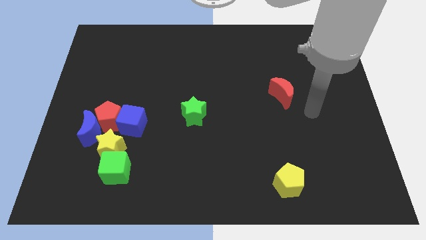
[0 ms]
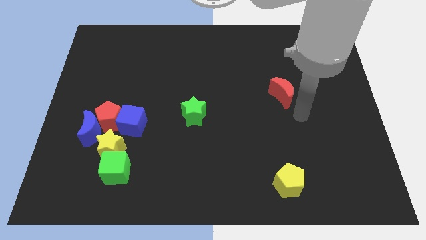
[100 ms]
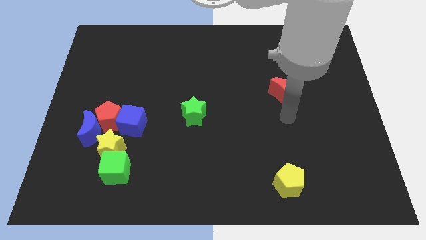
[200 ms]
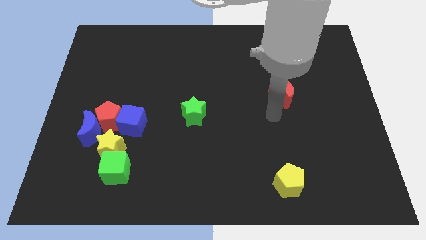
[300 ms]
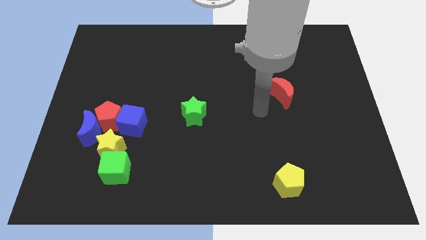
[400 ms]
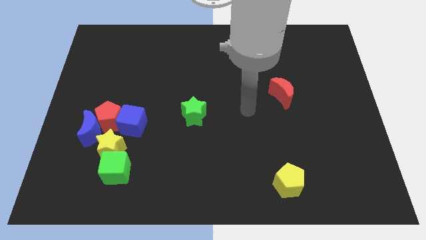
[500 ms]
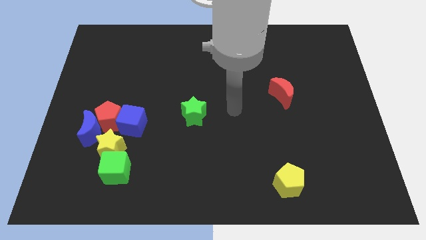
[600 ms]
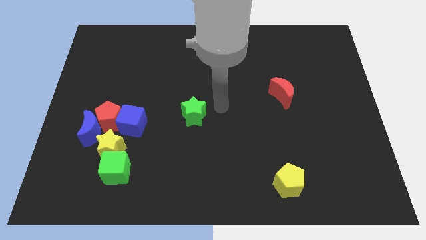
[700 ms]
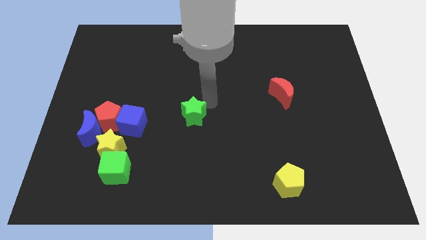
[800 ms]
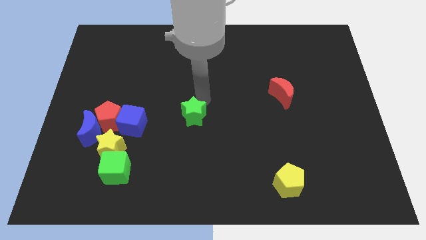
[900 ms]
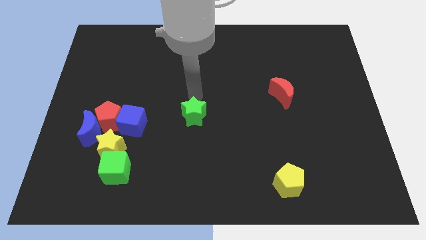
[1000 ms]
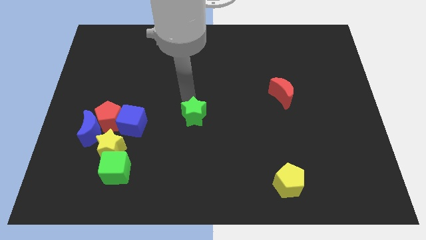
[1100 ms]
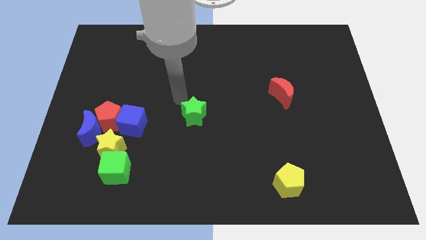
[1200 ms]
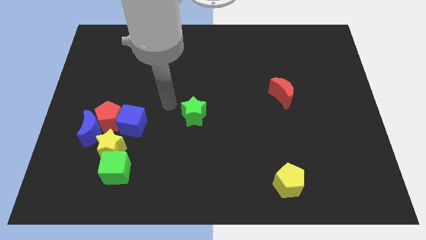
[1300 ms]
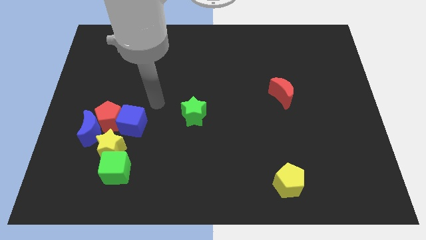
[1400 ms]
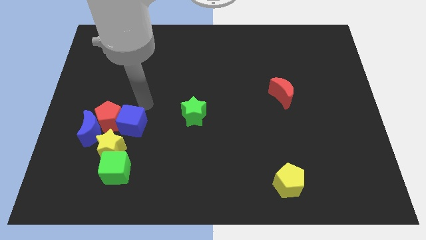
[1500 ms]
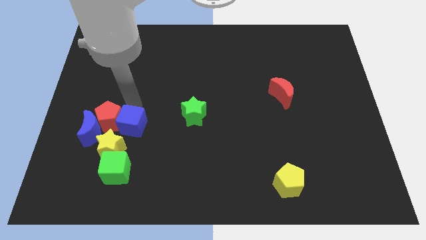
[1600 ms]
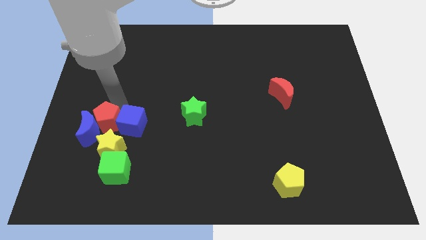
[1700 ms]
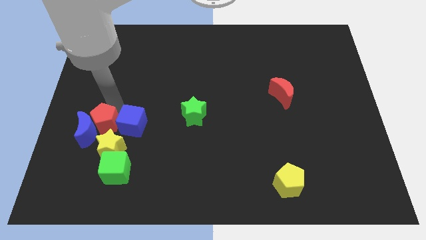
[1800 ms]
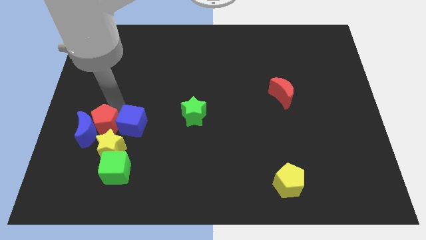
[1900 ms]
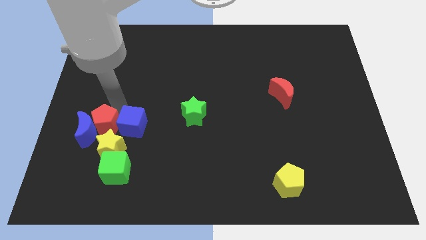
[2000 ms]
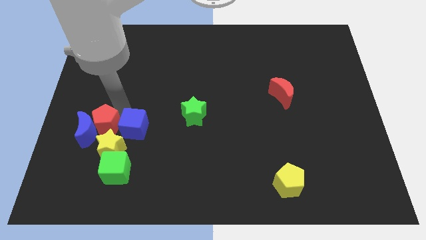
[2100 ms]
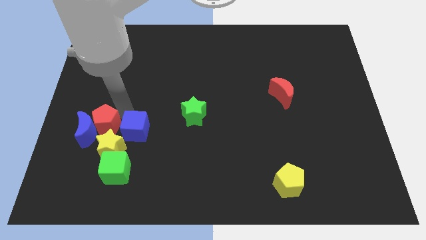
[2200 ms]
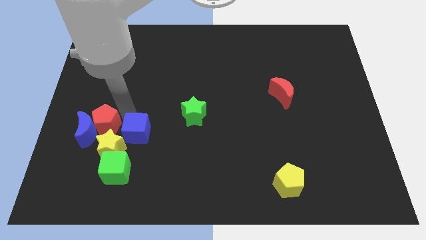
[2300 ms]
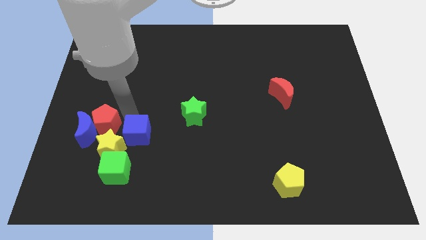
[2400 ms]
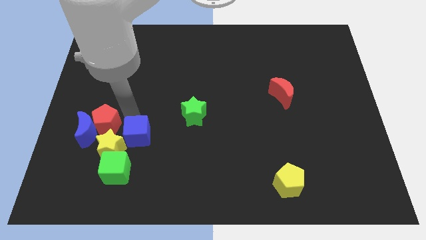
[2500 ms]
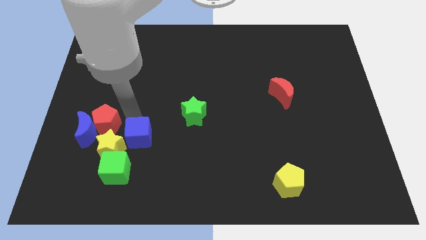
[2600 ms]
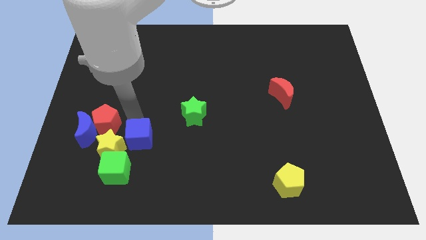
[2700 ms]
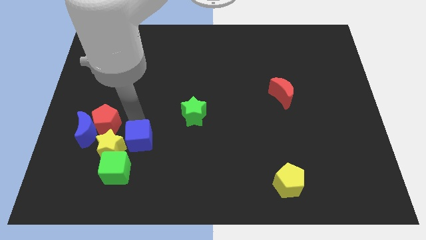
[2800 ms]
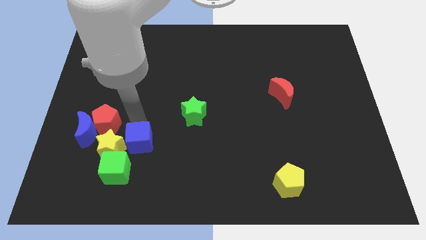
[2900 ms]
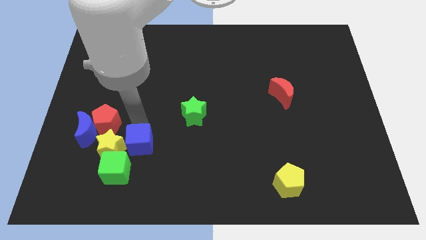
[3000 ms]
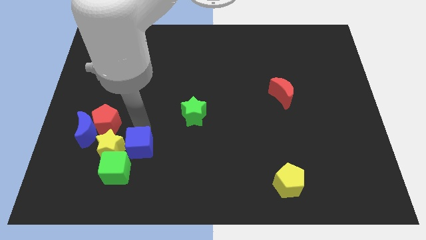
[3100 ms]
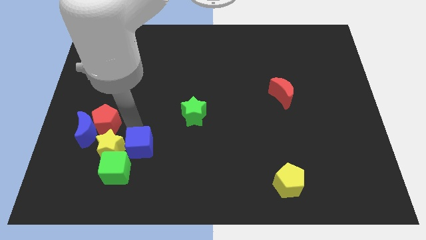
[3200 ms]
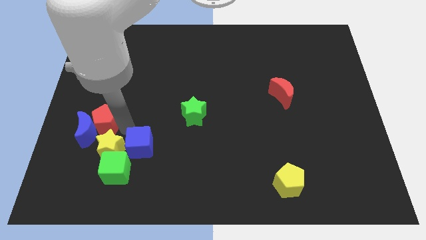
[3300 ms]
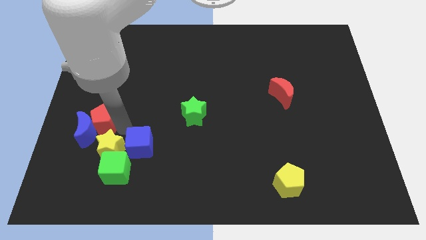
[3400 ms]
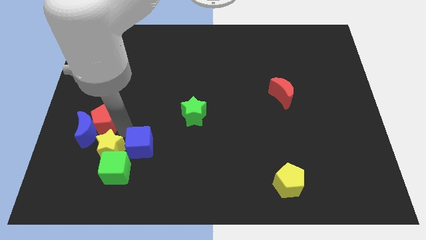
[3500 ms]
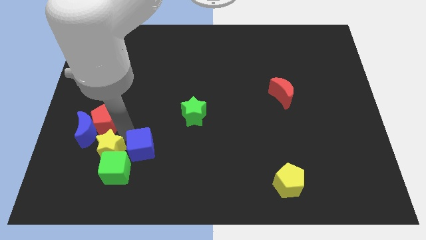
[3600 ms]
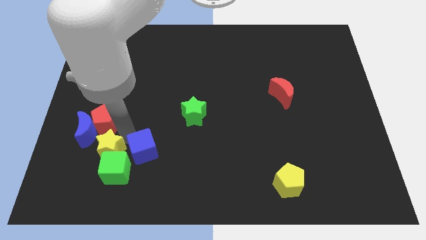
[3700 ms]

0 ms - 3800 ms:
move the blue cube to the right of the green cube

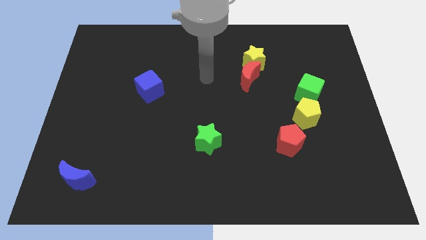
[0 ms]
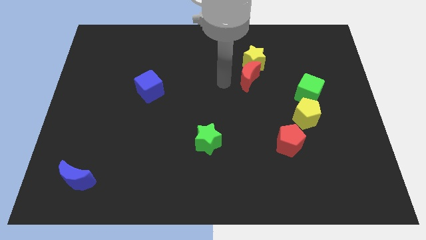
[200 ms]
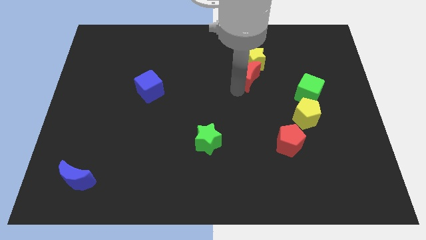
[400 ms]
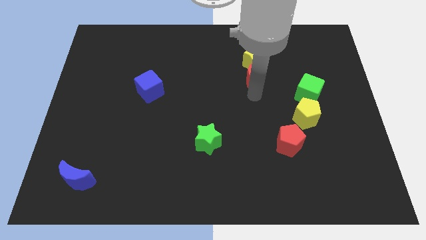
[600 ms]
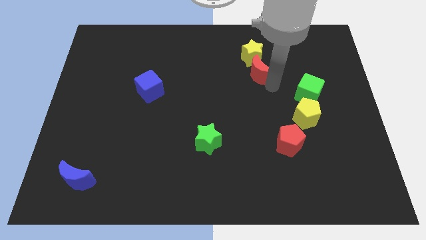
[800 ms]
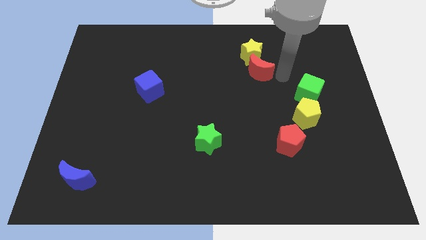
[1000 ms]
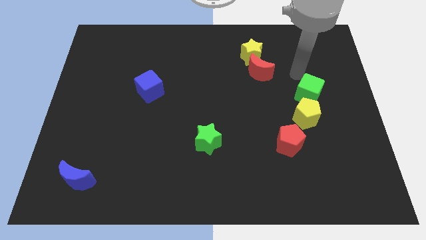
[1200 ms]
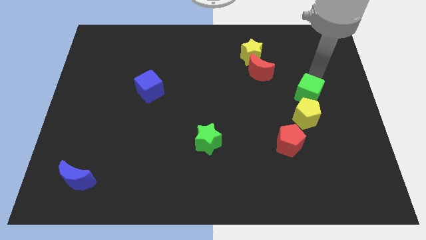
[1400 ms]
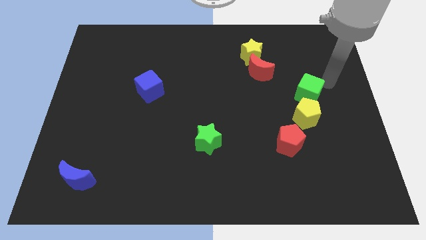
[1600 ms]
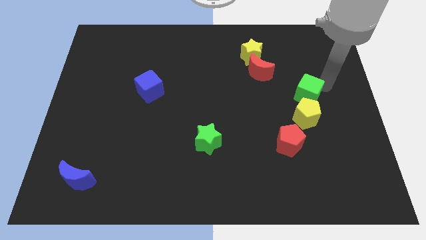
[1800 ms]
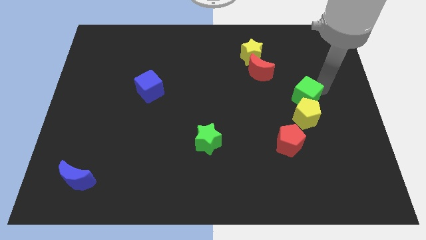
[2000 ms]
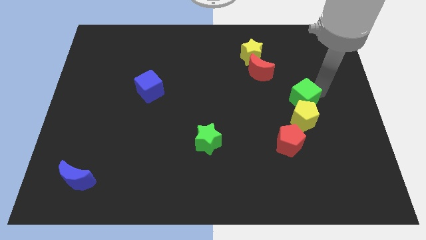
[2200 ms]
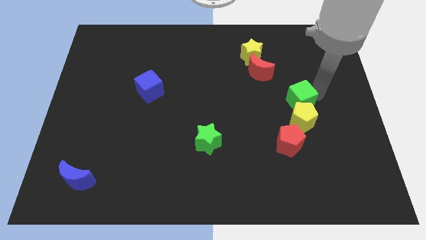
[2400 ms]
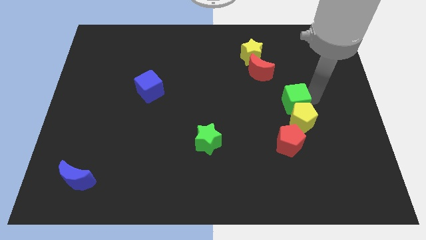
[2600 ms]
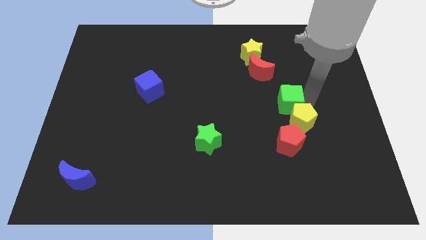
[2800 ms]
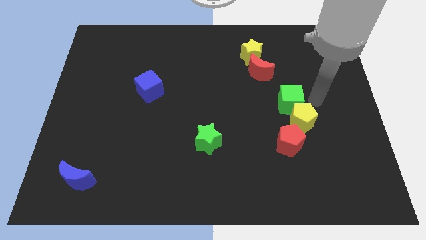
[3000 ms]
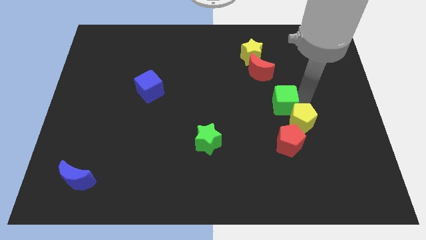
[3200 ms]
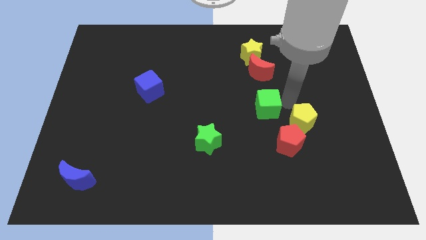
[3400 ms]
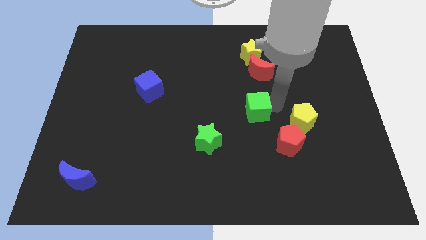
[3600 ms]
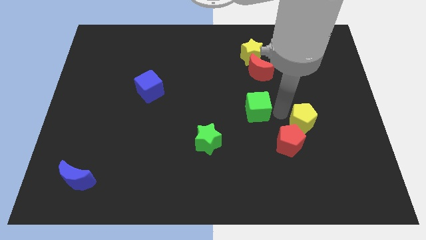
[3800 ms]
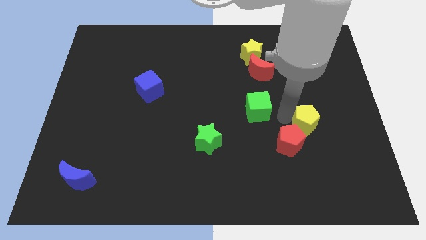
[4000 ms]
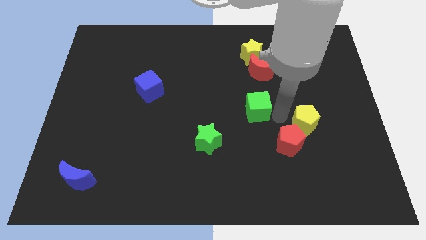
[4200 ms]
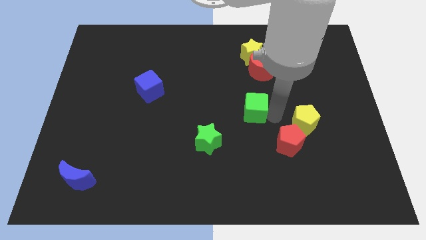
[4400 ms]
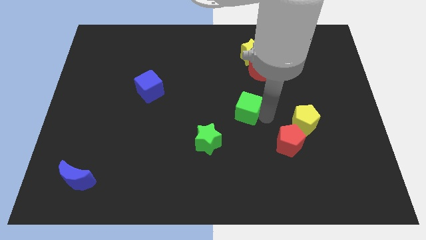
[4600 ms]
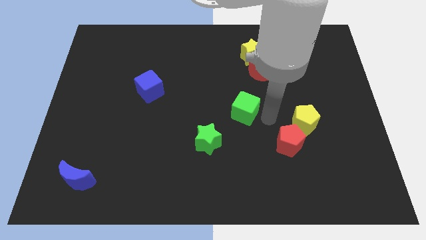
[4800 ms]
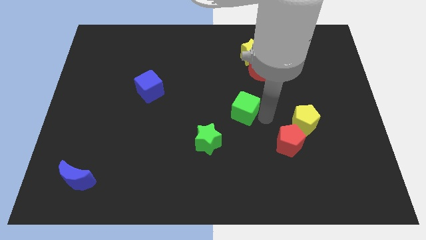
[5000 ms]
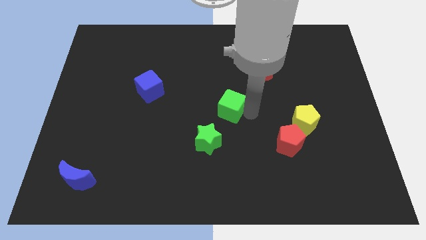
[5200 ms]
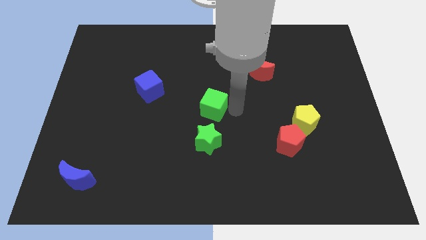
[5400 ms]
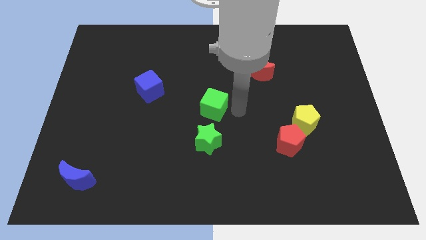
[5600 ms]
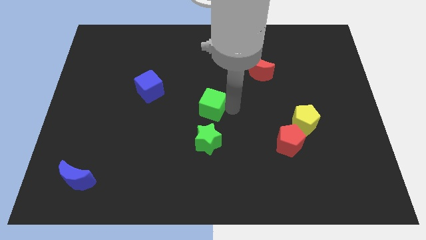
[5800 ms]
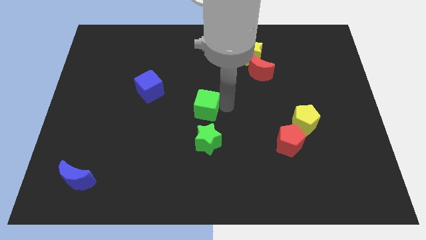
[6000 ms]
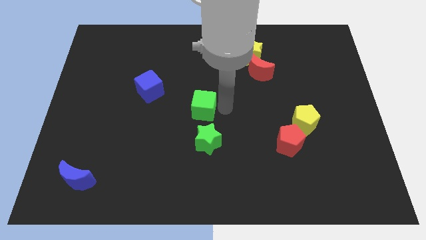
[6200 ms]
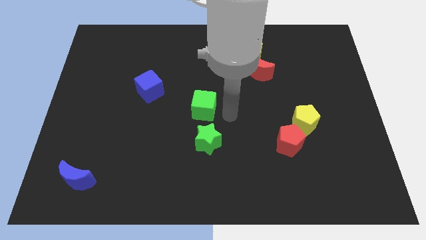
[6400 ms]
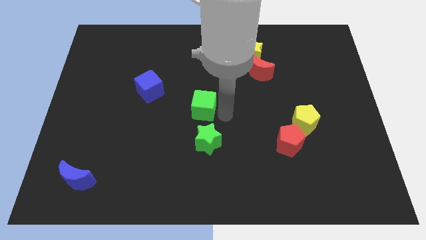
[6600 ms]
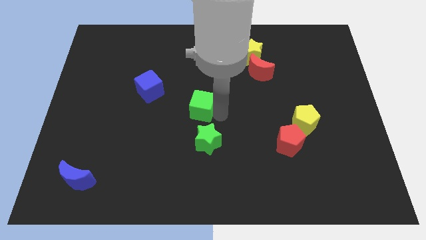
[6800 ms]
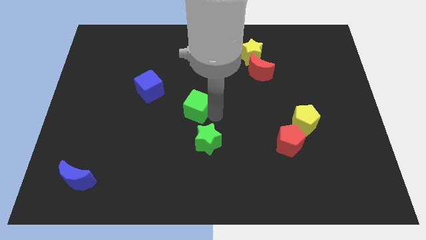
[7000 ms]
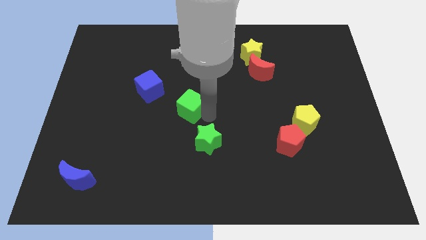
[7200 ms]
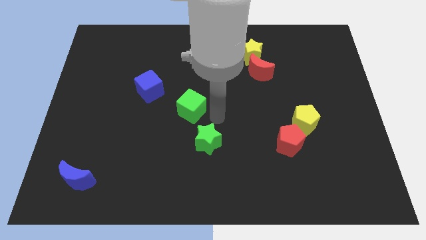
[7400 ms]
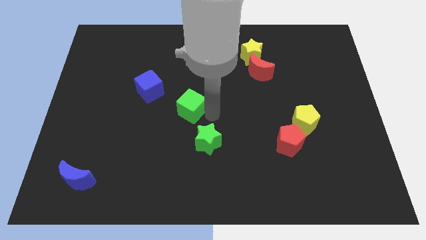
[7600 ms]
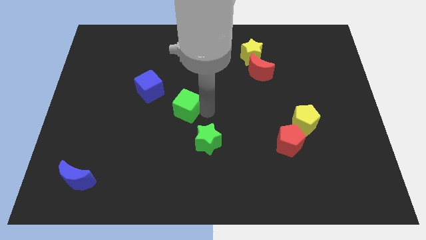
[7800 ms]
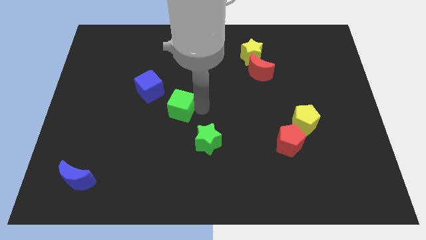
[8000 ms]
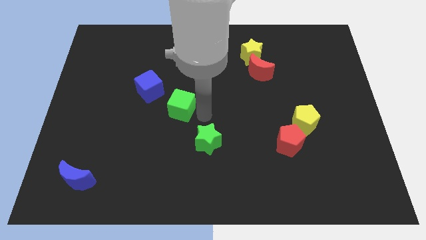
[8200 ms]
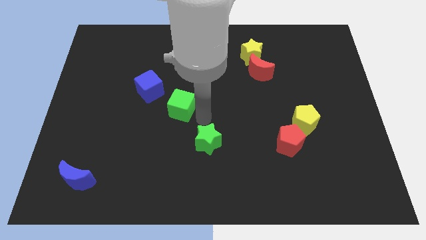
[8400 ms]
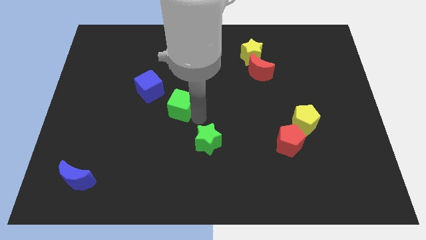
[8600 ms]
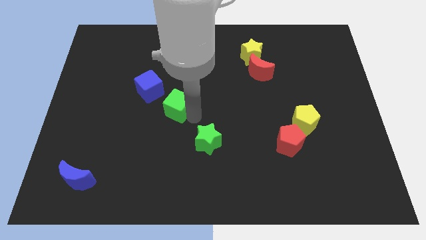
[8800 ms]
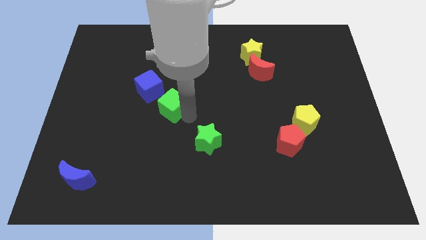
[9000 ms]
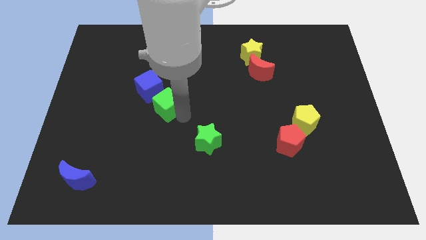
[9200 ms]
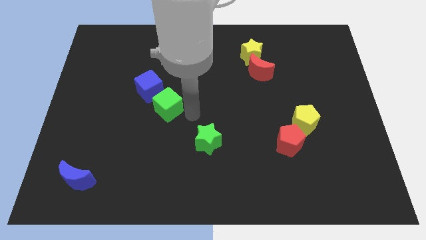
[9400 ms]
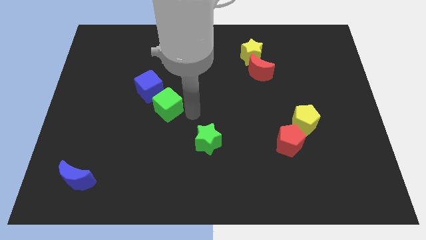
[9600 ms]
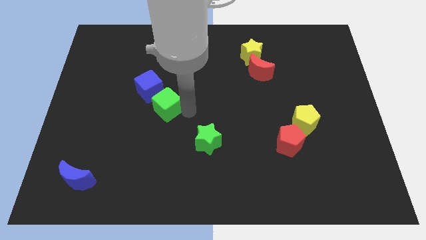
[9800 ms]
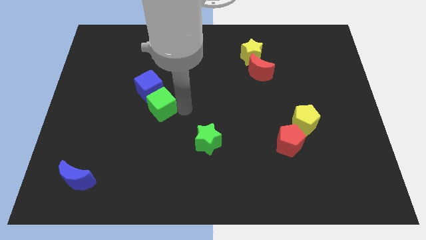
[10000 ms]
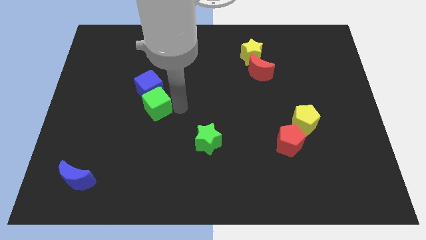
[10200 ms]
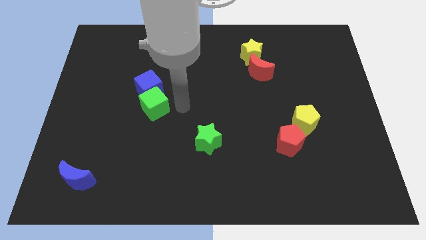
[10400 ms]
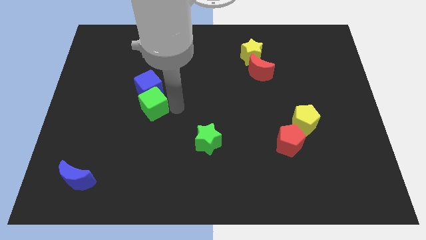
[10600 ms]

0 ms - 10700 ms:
push the green cube to the bottom left of the blue cube
